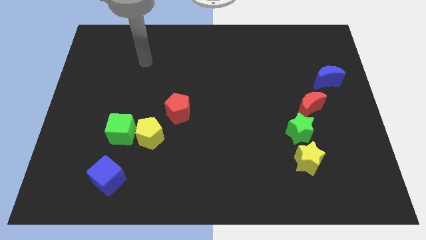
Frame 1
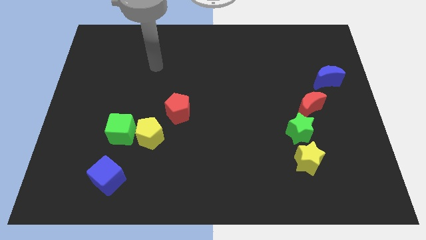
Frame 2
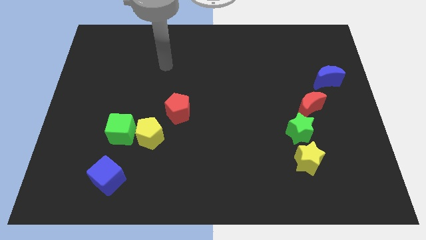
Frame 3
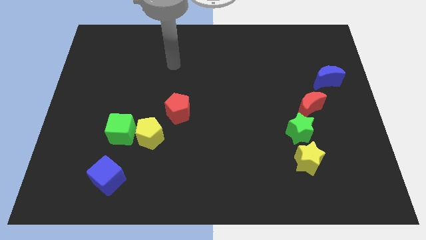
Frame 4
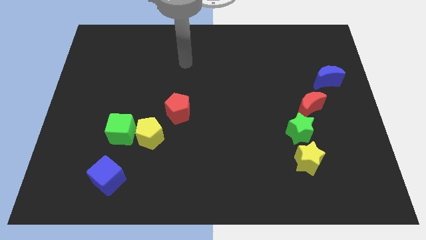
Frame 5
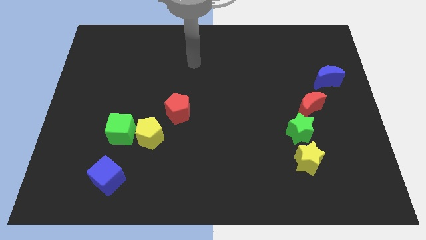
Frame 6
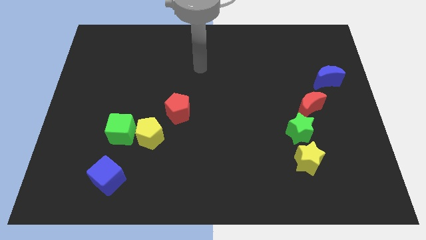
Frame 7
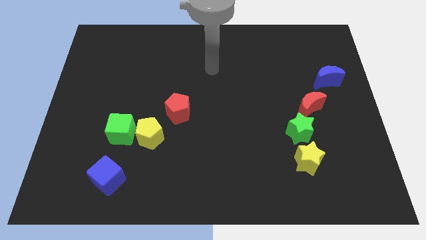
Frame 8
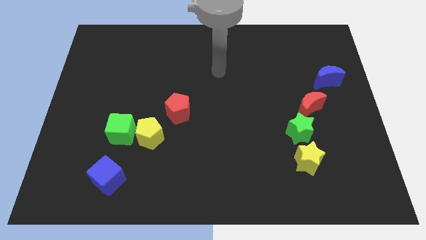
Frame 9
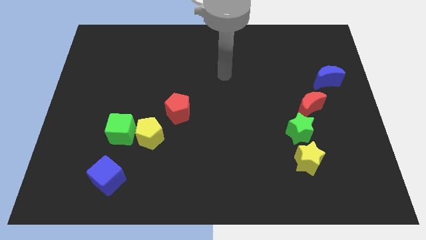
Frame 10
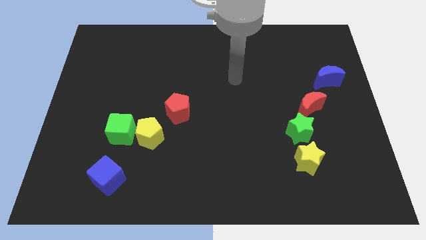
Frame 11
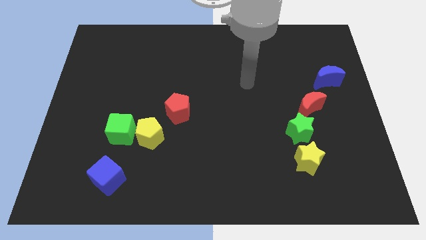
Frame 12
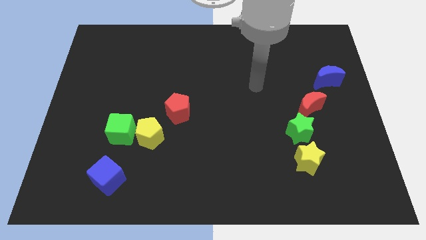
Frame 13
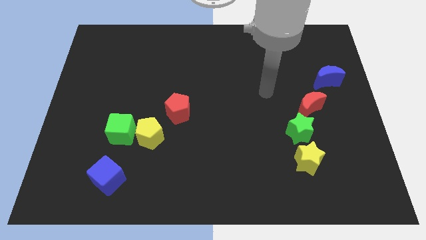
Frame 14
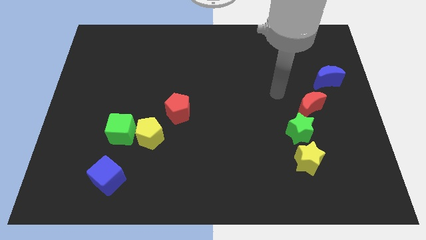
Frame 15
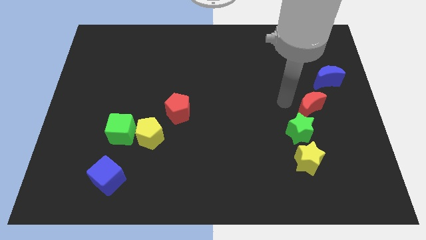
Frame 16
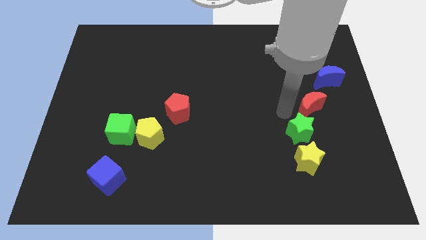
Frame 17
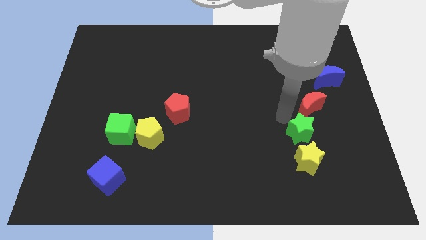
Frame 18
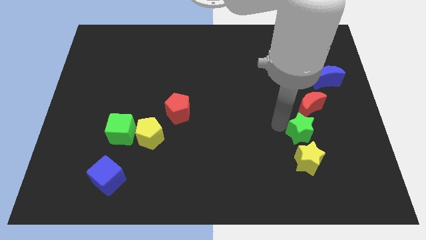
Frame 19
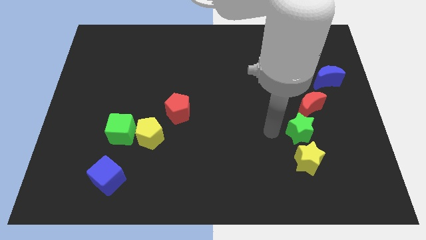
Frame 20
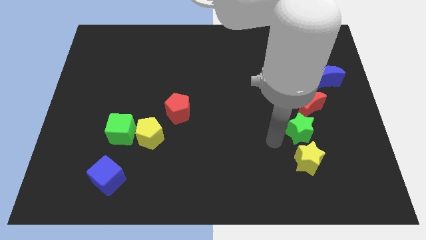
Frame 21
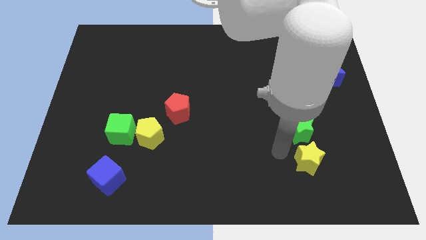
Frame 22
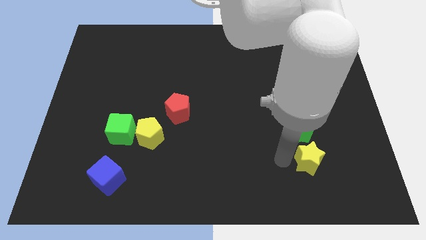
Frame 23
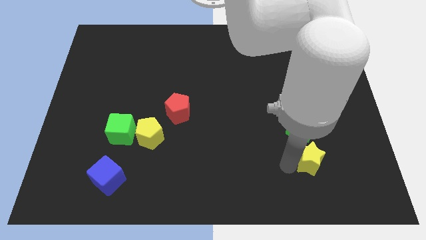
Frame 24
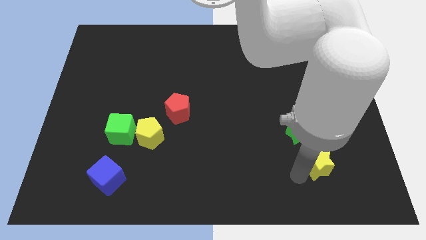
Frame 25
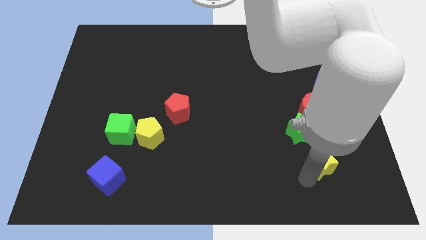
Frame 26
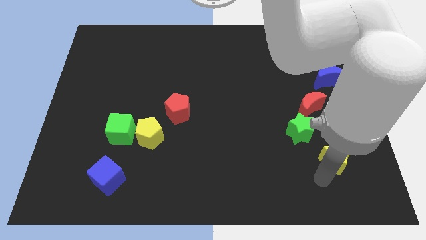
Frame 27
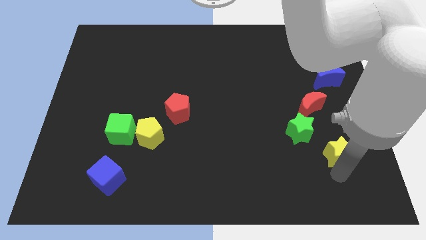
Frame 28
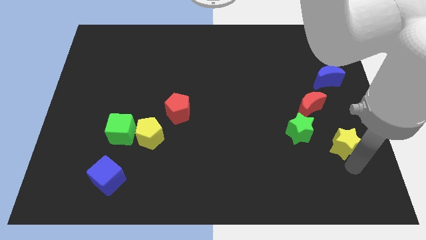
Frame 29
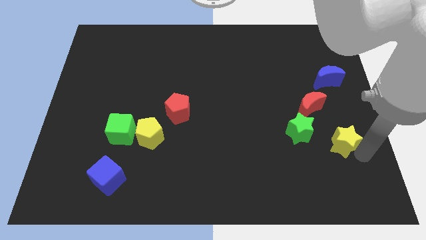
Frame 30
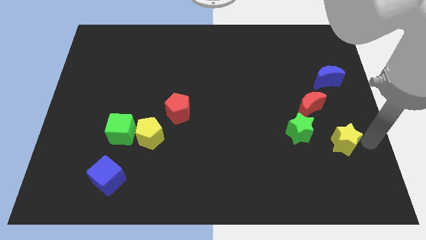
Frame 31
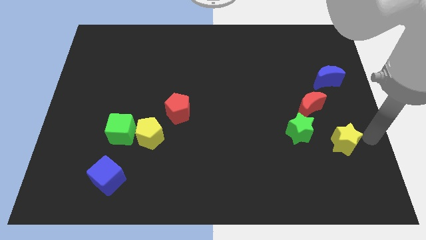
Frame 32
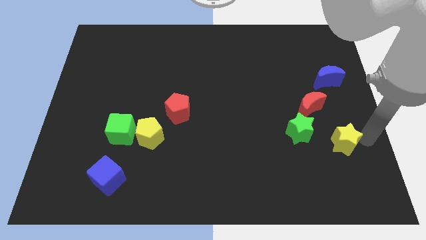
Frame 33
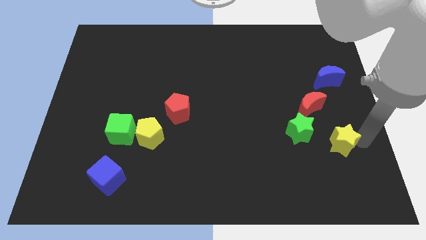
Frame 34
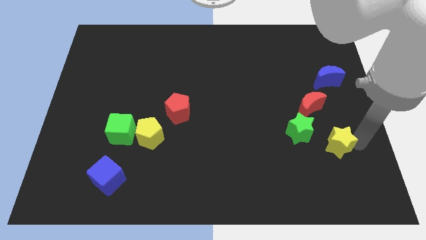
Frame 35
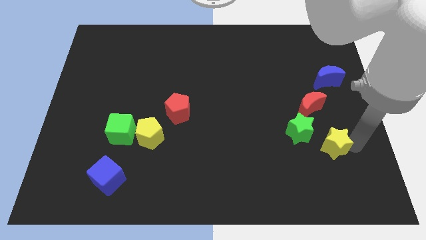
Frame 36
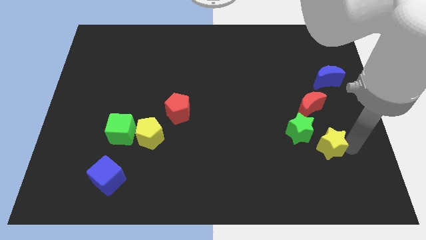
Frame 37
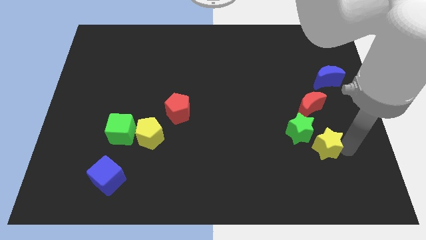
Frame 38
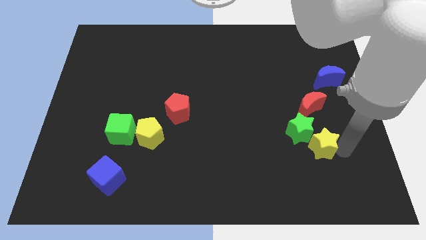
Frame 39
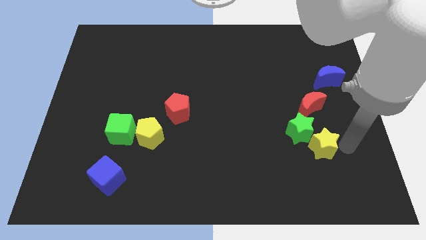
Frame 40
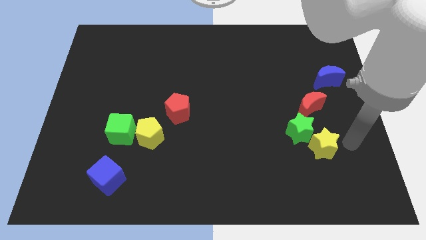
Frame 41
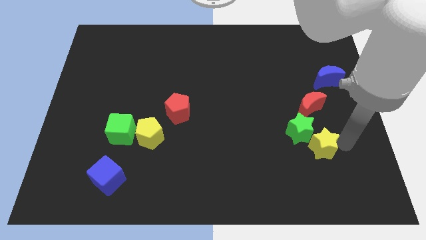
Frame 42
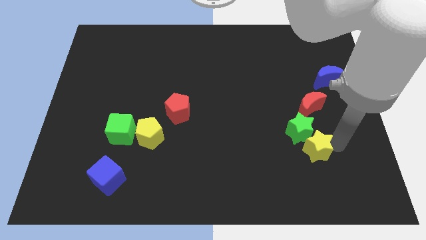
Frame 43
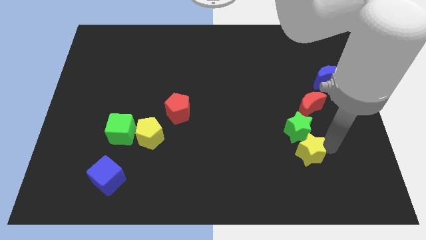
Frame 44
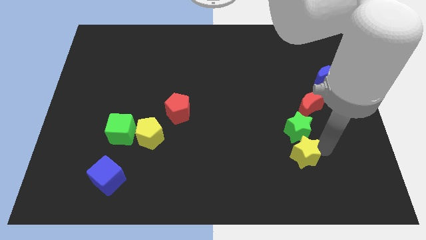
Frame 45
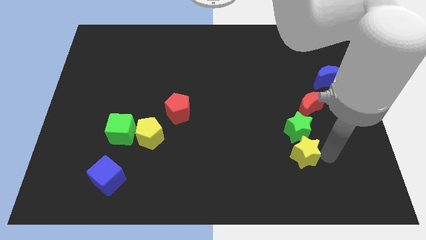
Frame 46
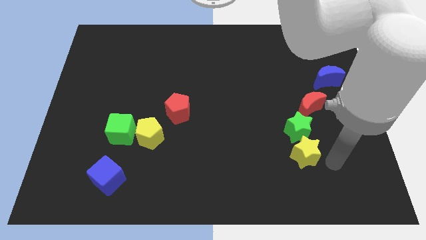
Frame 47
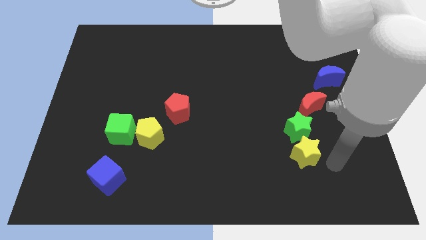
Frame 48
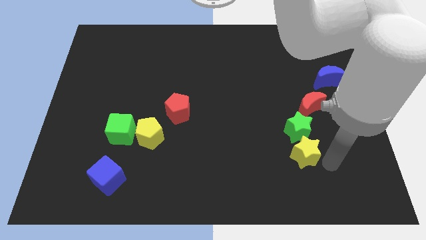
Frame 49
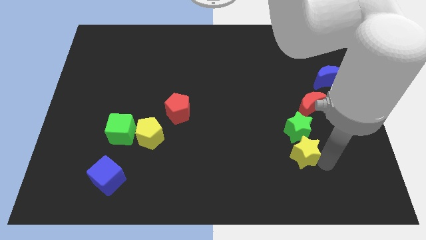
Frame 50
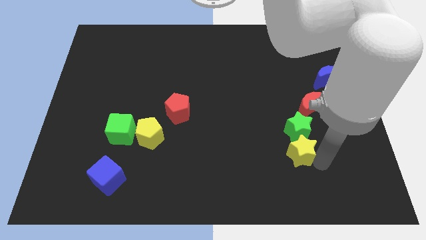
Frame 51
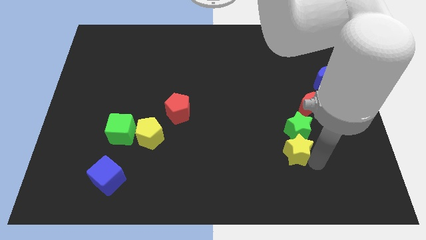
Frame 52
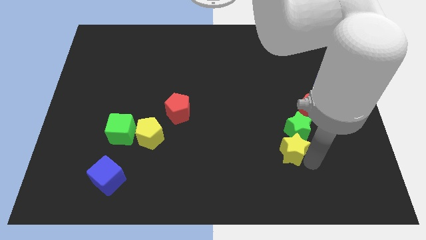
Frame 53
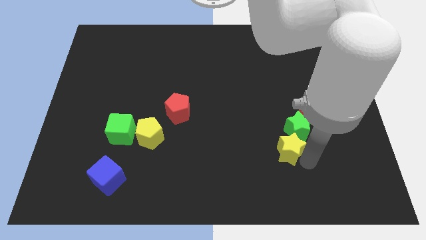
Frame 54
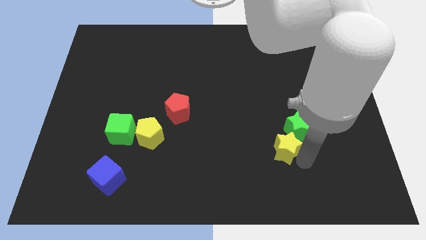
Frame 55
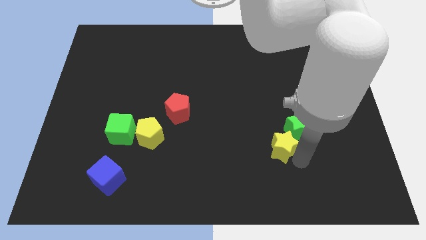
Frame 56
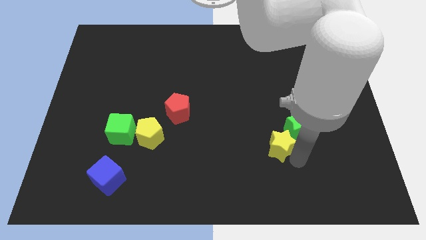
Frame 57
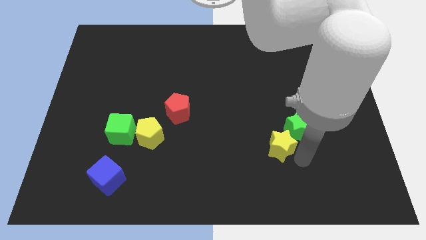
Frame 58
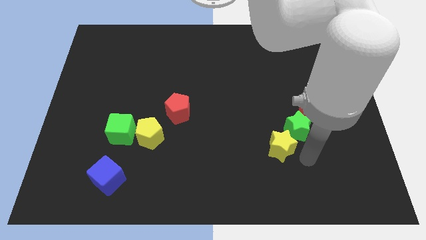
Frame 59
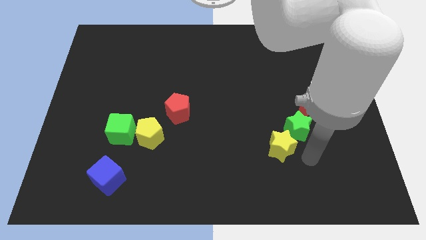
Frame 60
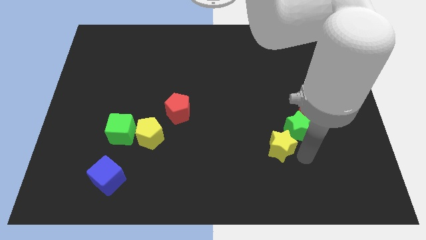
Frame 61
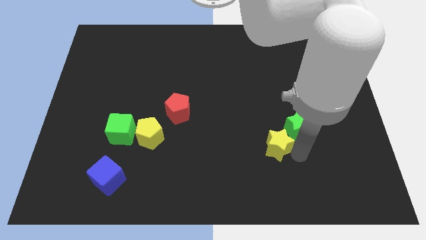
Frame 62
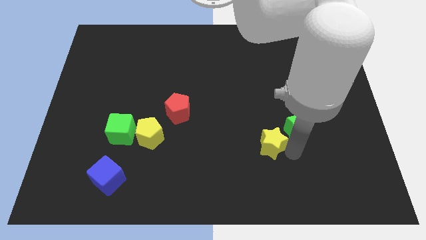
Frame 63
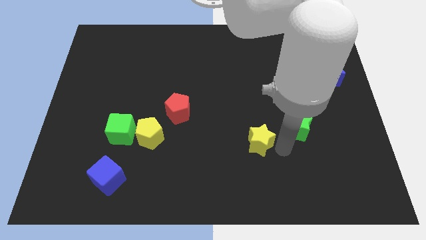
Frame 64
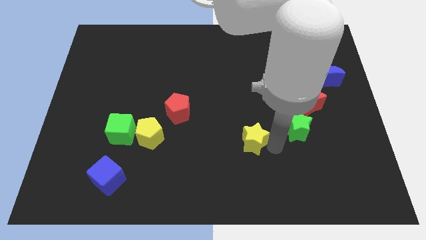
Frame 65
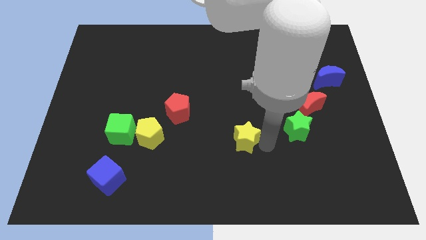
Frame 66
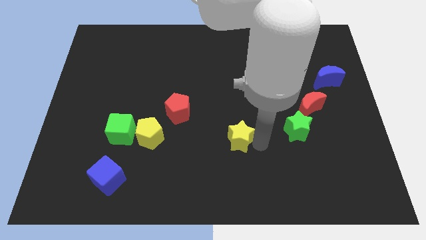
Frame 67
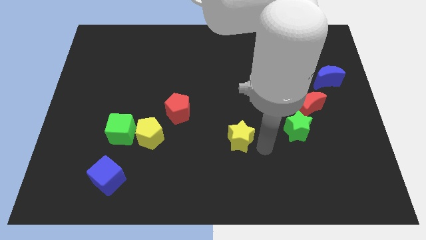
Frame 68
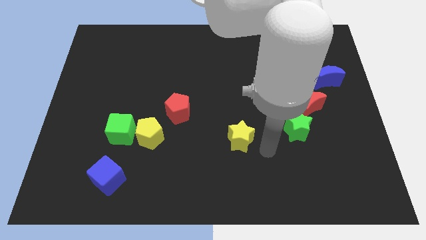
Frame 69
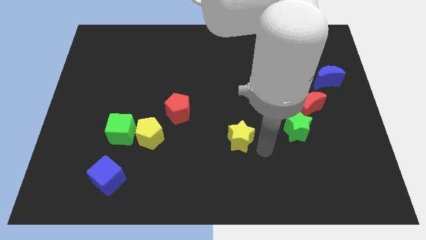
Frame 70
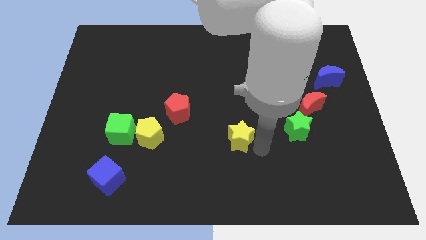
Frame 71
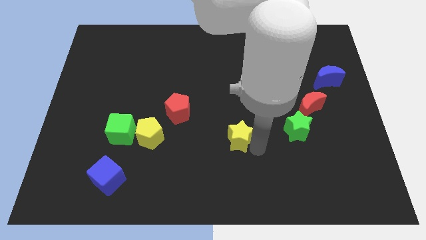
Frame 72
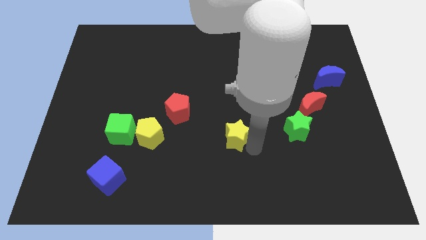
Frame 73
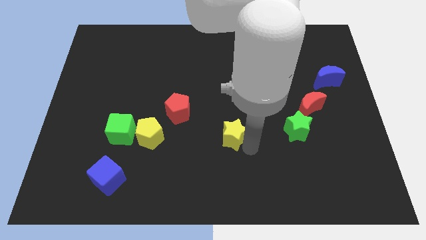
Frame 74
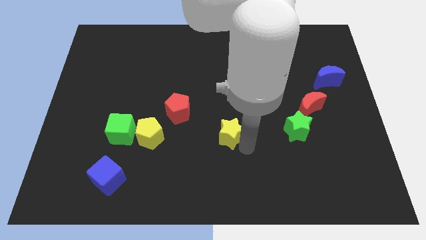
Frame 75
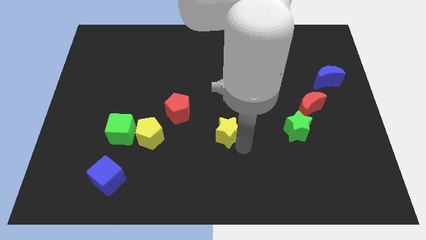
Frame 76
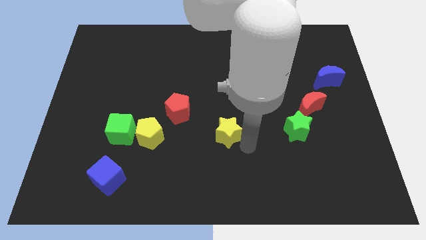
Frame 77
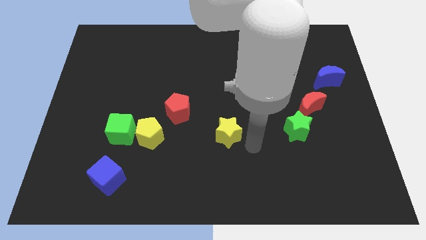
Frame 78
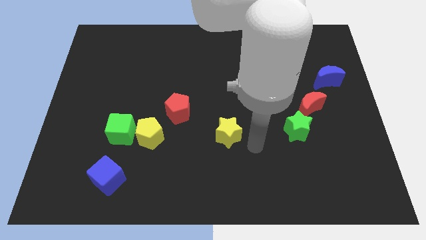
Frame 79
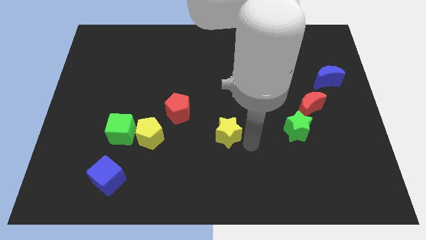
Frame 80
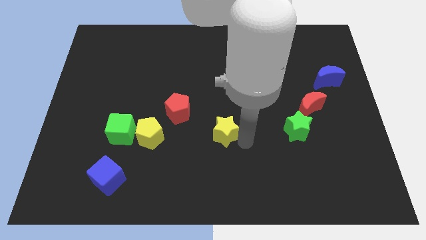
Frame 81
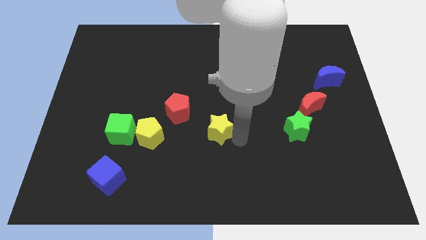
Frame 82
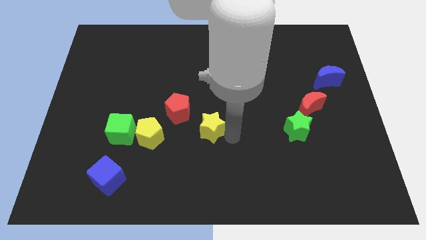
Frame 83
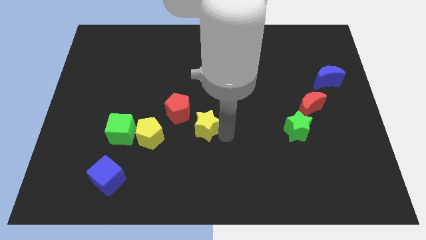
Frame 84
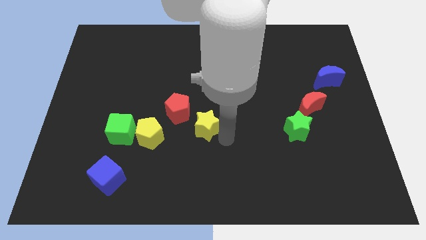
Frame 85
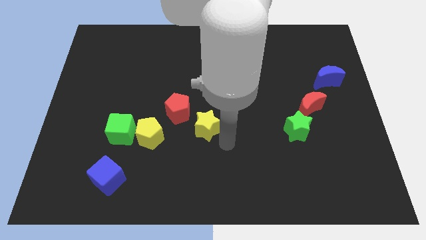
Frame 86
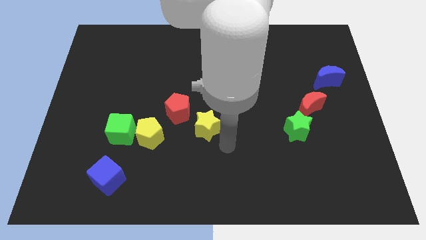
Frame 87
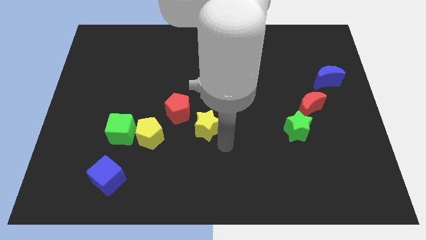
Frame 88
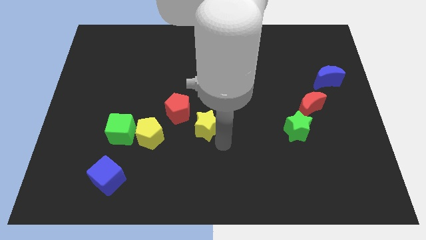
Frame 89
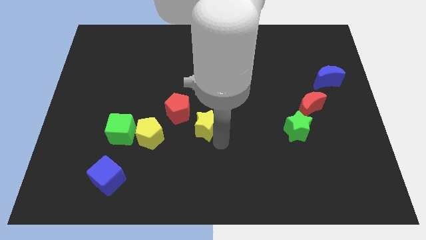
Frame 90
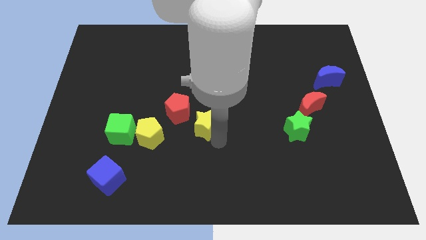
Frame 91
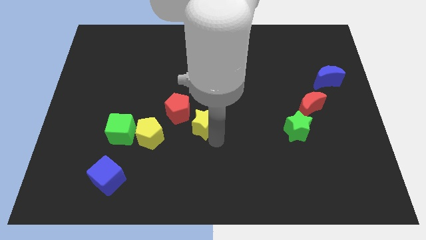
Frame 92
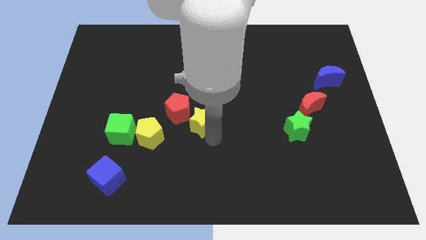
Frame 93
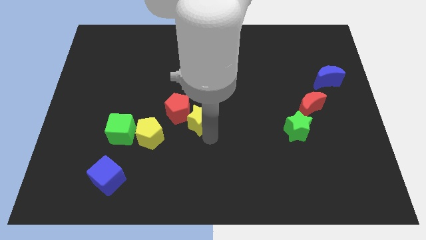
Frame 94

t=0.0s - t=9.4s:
slide the yellow star towards the red pentagon
